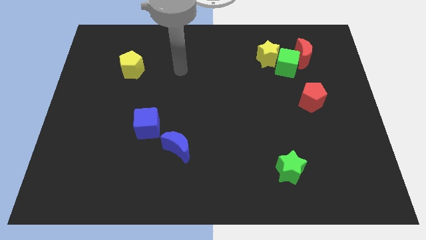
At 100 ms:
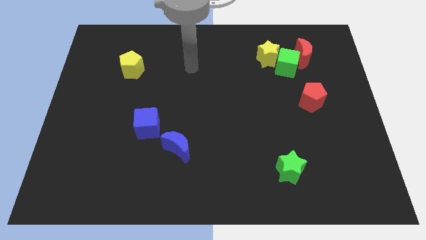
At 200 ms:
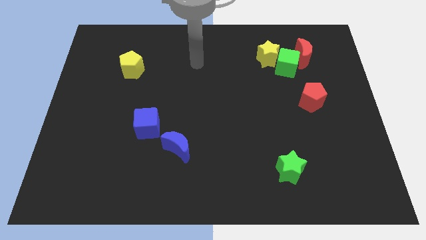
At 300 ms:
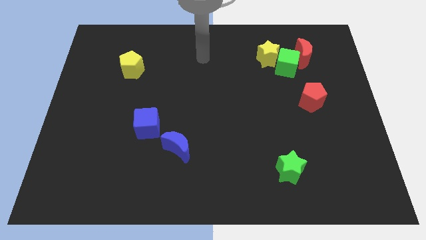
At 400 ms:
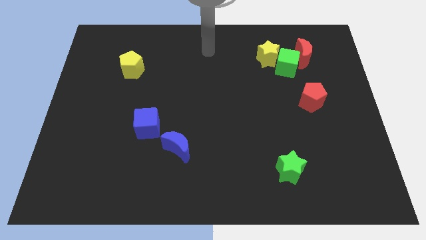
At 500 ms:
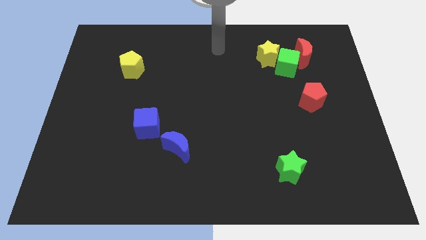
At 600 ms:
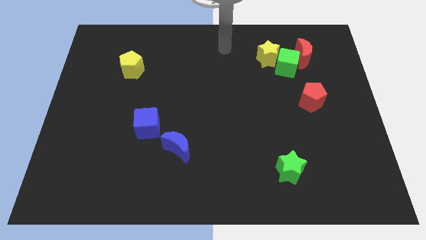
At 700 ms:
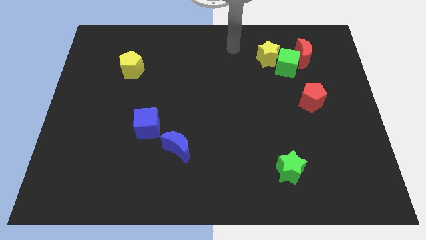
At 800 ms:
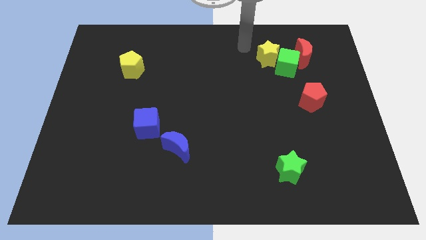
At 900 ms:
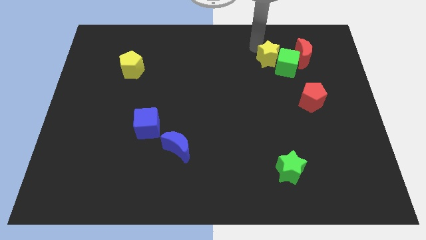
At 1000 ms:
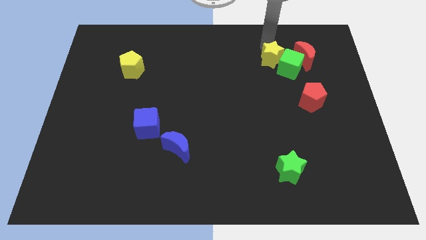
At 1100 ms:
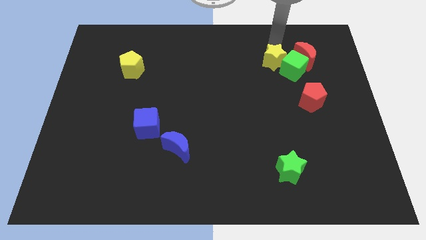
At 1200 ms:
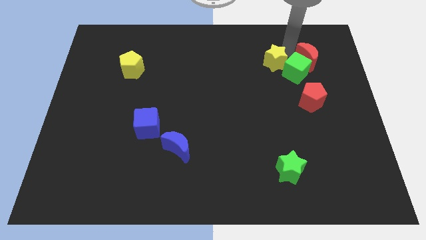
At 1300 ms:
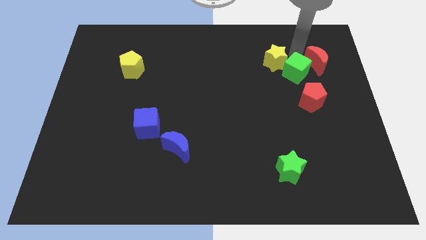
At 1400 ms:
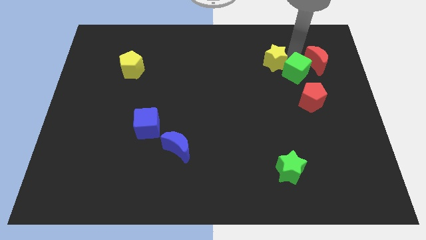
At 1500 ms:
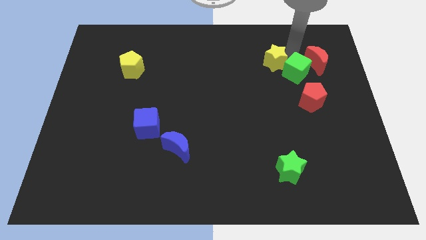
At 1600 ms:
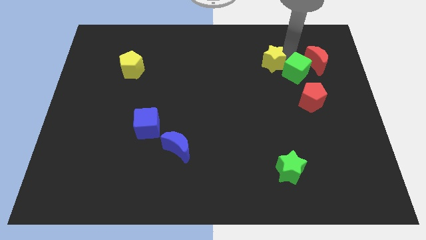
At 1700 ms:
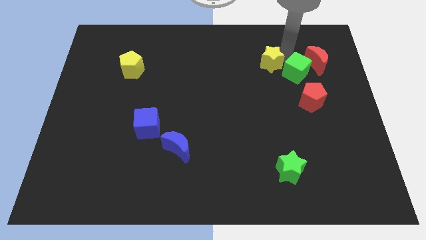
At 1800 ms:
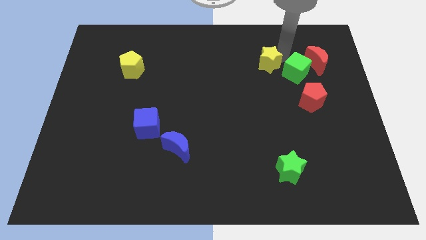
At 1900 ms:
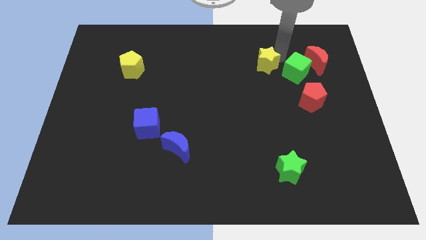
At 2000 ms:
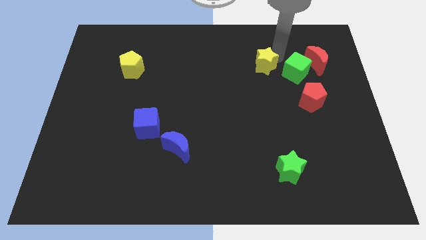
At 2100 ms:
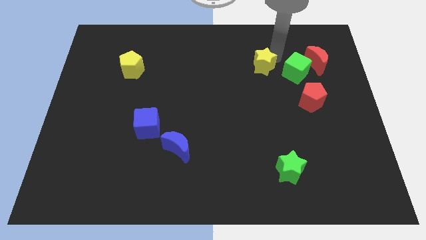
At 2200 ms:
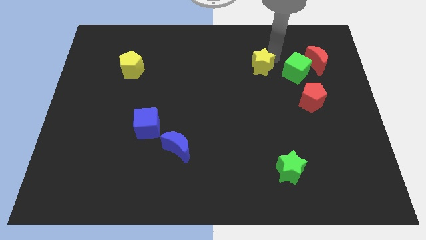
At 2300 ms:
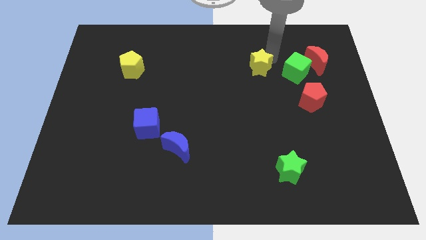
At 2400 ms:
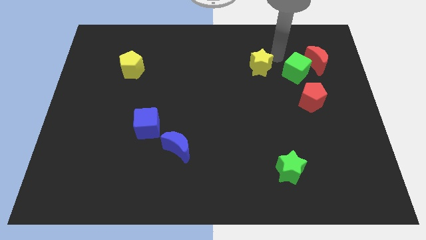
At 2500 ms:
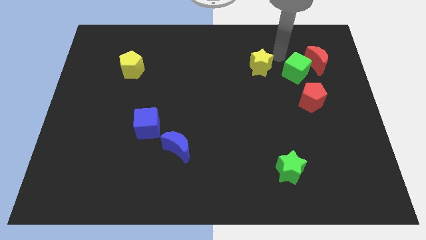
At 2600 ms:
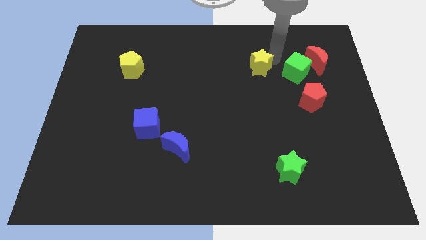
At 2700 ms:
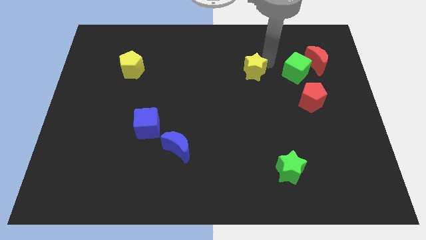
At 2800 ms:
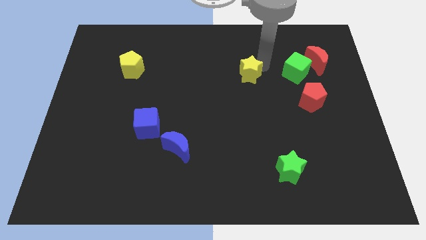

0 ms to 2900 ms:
move the yellow star down and left a bit

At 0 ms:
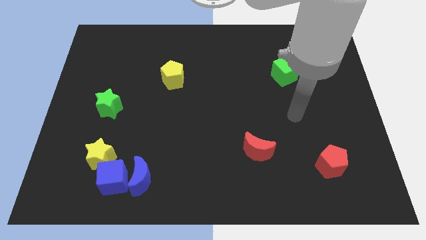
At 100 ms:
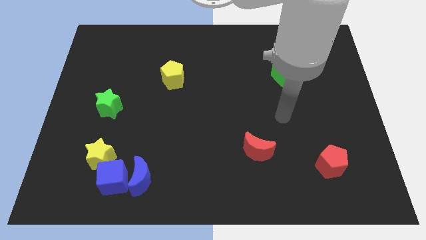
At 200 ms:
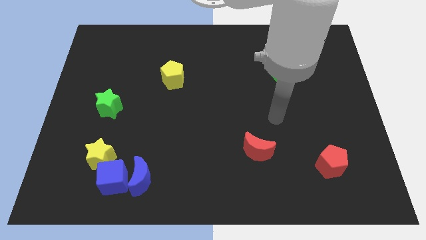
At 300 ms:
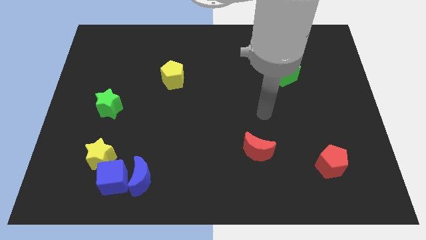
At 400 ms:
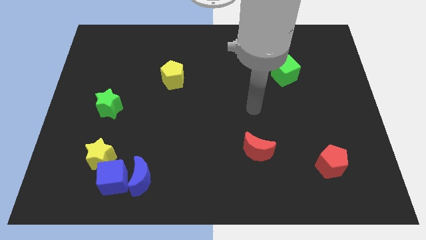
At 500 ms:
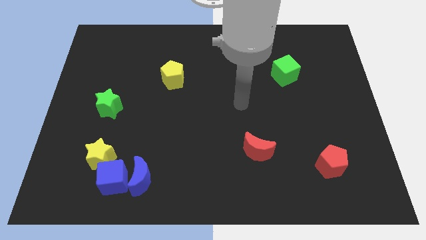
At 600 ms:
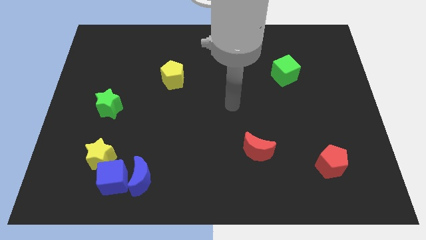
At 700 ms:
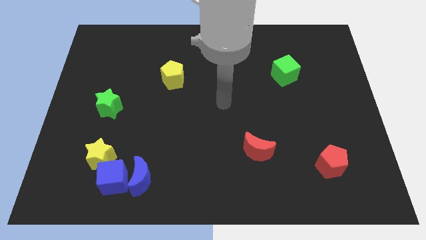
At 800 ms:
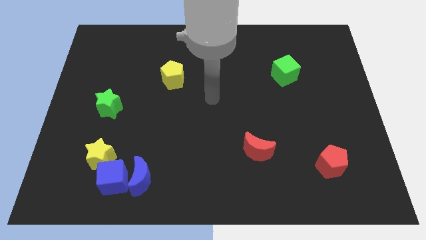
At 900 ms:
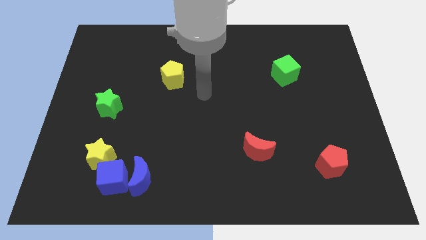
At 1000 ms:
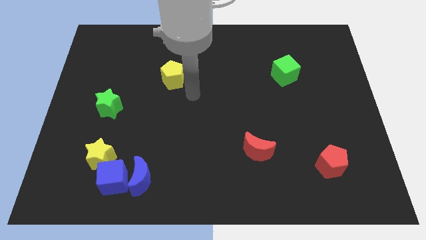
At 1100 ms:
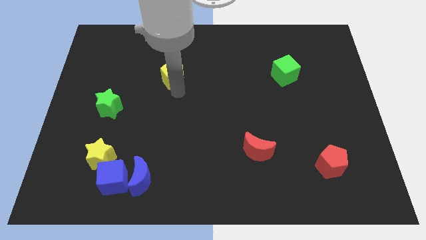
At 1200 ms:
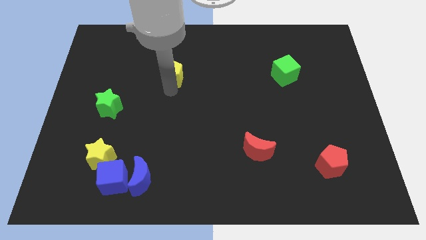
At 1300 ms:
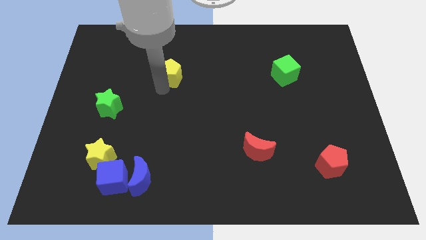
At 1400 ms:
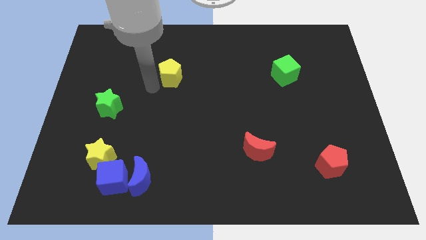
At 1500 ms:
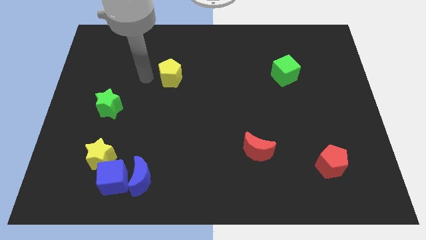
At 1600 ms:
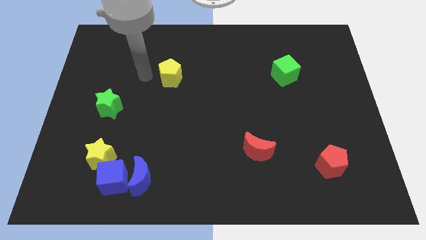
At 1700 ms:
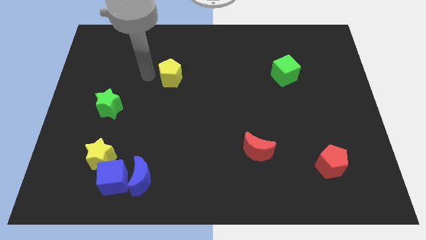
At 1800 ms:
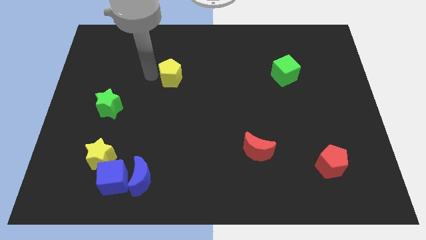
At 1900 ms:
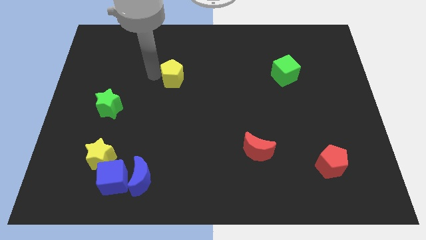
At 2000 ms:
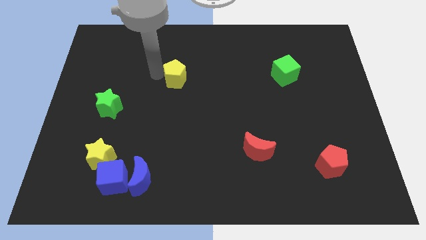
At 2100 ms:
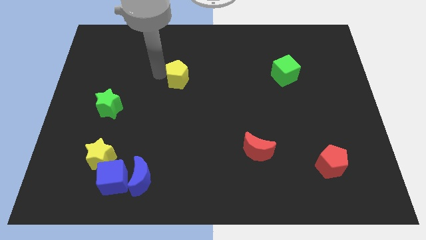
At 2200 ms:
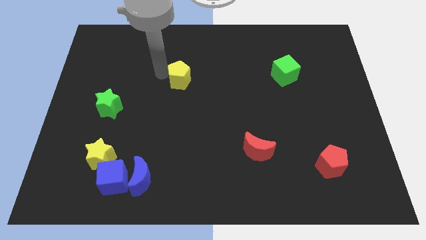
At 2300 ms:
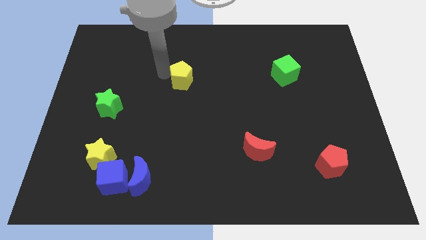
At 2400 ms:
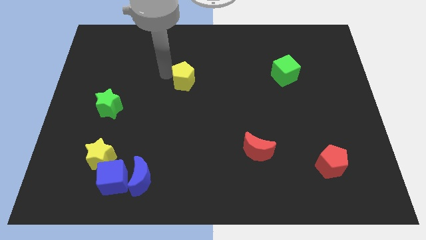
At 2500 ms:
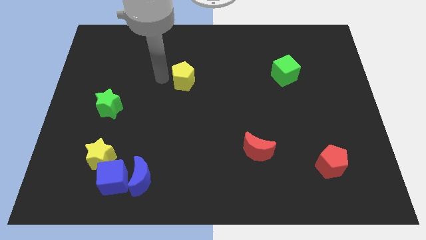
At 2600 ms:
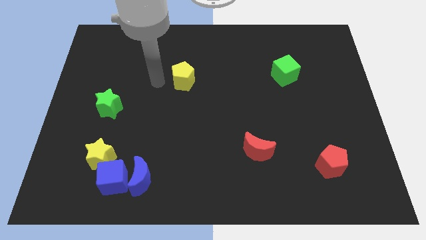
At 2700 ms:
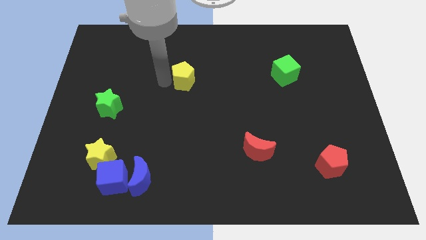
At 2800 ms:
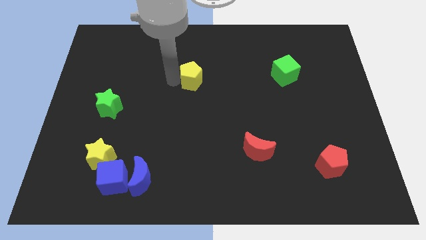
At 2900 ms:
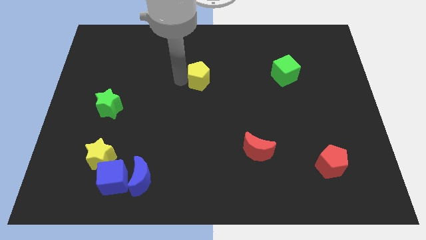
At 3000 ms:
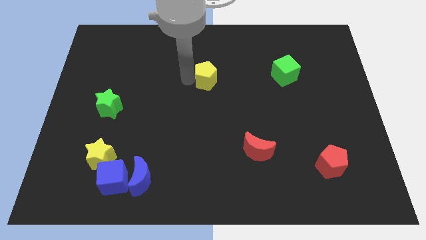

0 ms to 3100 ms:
slightly push the yellow pentagon right

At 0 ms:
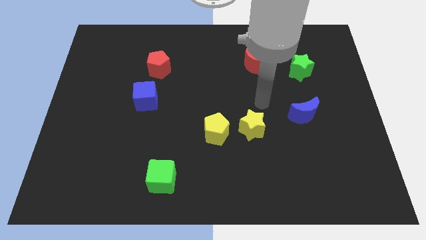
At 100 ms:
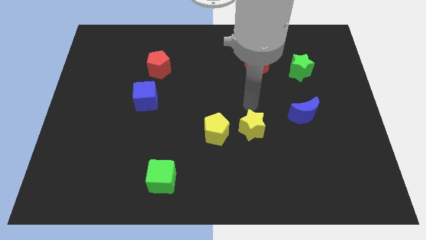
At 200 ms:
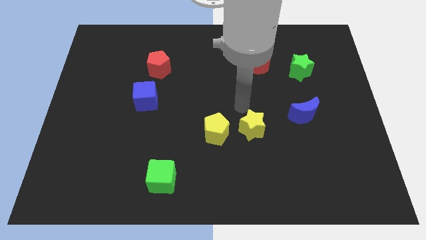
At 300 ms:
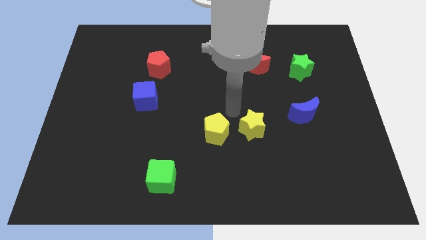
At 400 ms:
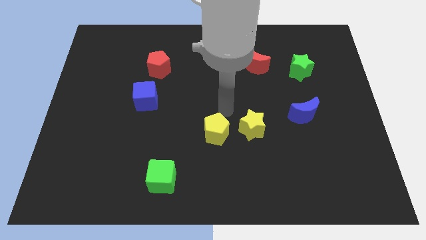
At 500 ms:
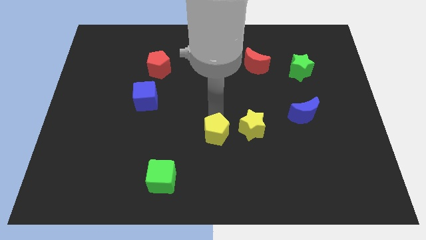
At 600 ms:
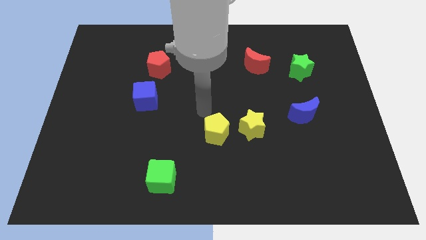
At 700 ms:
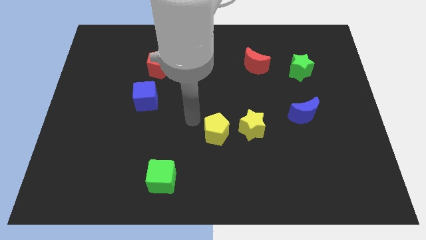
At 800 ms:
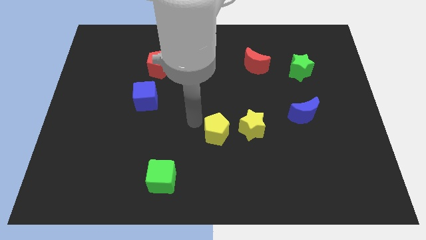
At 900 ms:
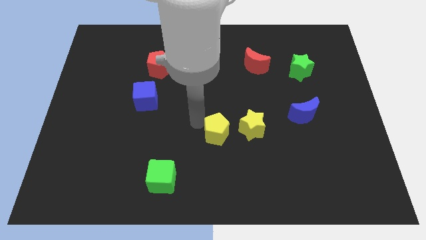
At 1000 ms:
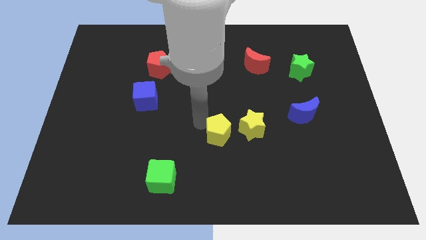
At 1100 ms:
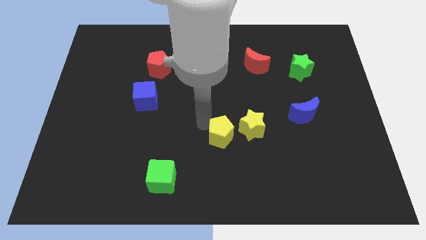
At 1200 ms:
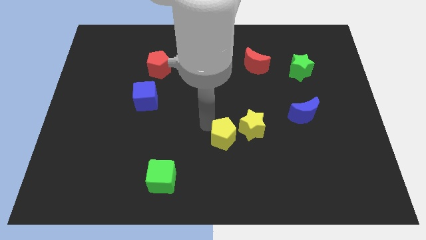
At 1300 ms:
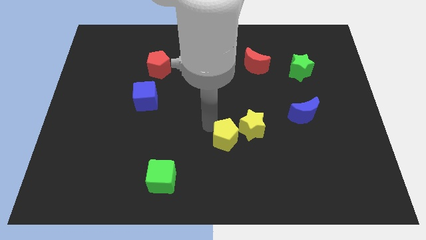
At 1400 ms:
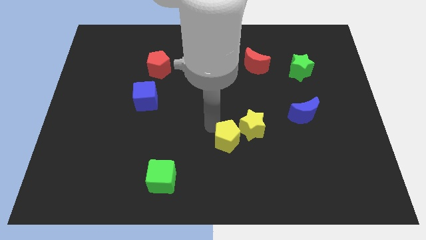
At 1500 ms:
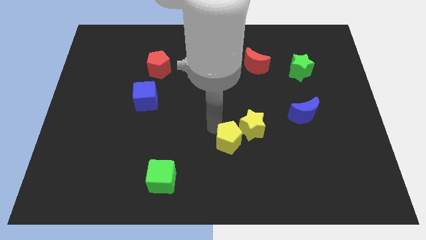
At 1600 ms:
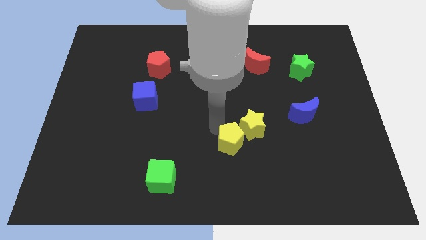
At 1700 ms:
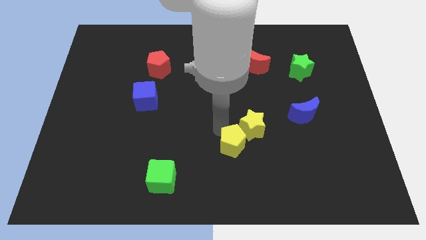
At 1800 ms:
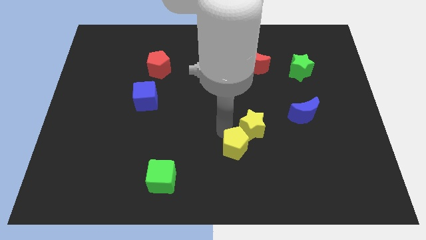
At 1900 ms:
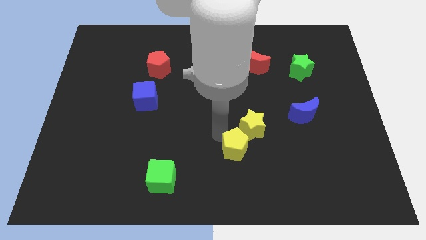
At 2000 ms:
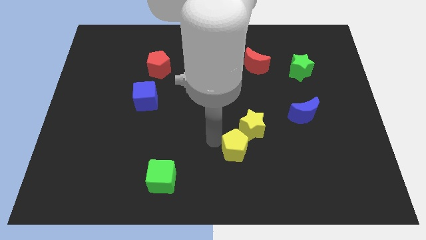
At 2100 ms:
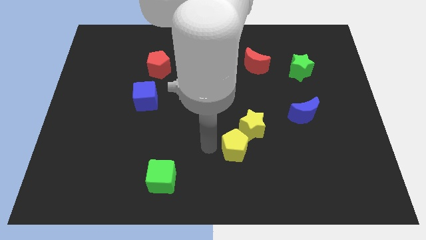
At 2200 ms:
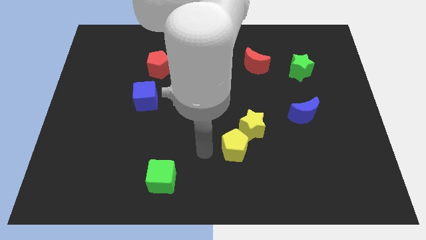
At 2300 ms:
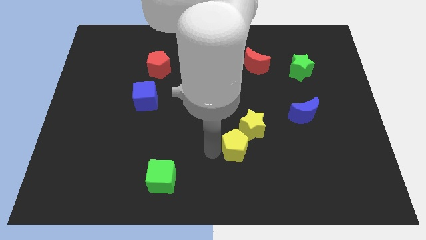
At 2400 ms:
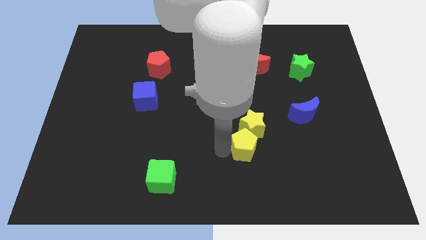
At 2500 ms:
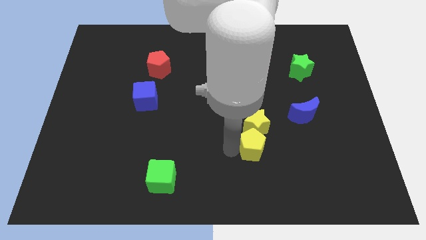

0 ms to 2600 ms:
push the yellow pentagon right somewhat
